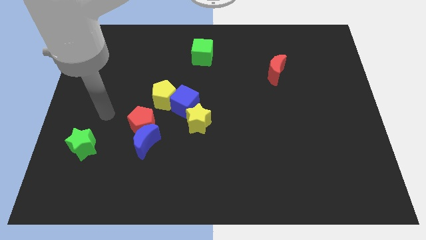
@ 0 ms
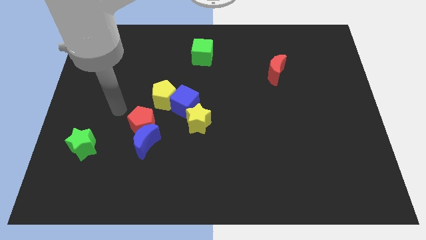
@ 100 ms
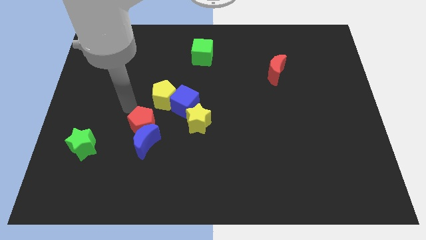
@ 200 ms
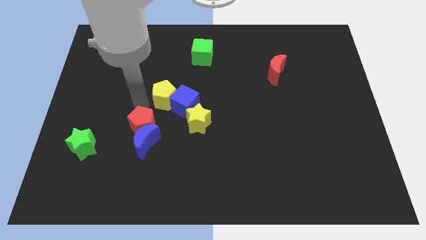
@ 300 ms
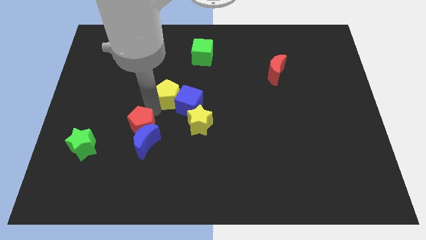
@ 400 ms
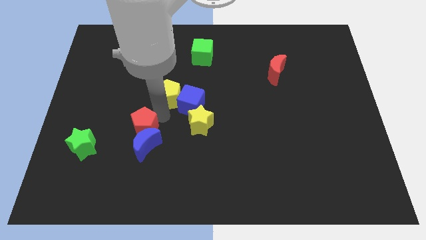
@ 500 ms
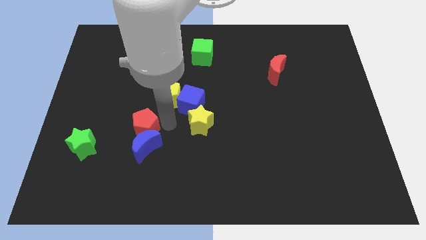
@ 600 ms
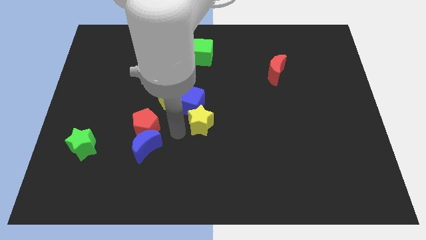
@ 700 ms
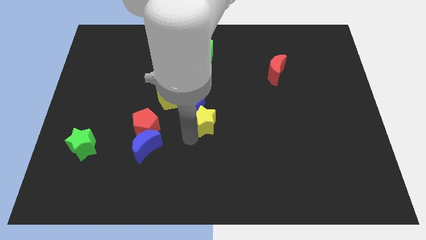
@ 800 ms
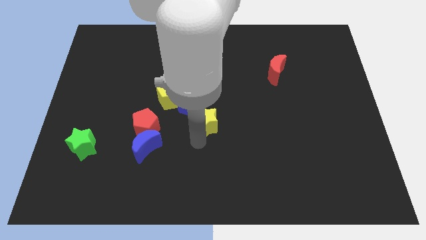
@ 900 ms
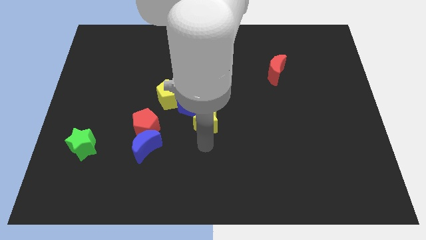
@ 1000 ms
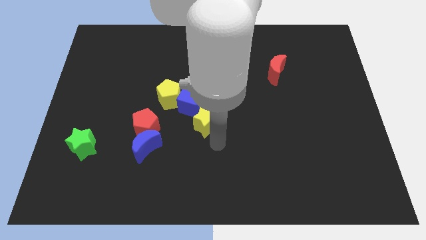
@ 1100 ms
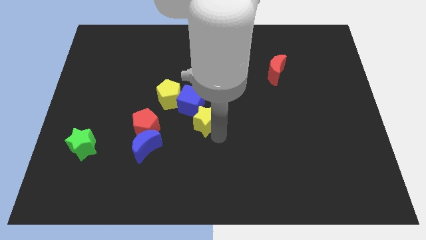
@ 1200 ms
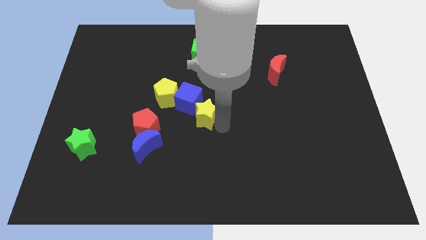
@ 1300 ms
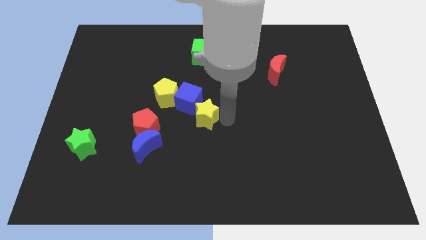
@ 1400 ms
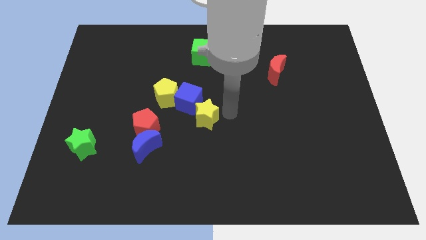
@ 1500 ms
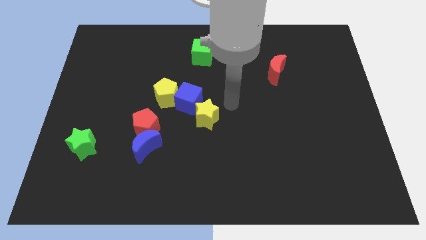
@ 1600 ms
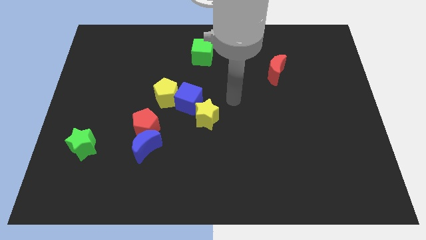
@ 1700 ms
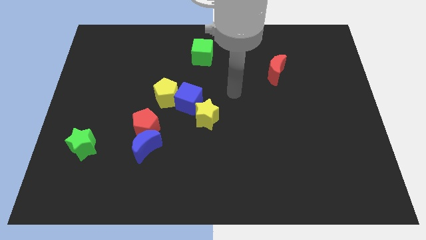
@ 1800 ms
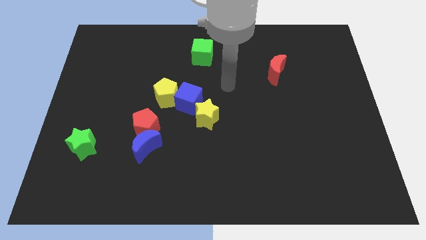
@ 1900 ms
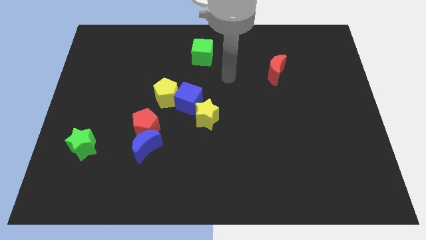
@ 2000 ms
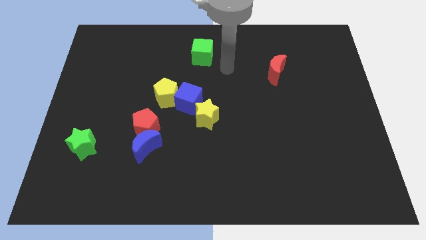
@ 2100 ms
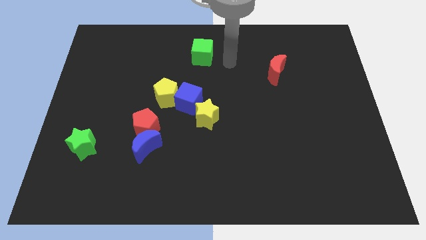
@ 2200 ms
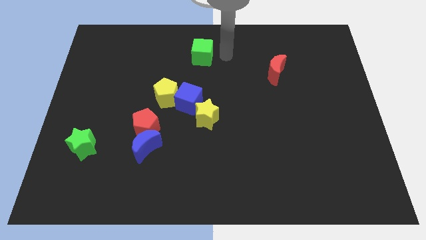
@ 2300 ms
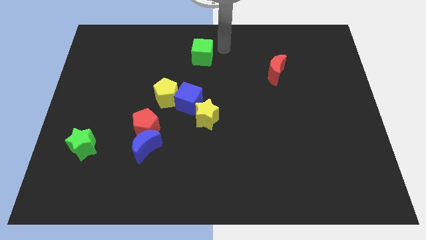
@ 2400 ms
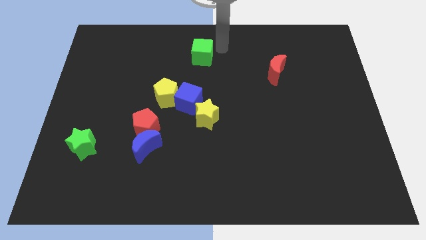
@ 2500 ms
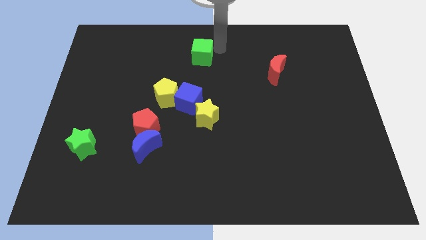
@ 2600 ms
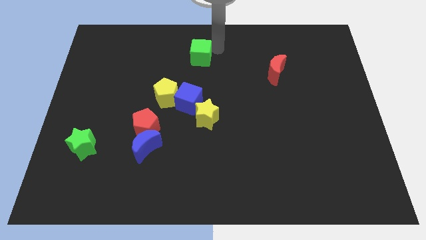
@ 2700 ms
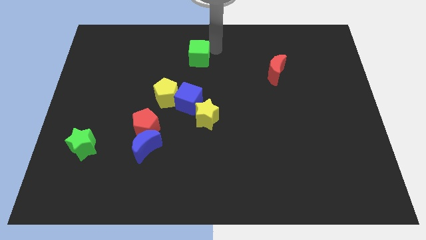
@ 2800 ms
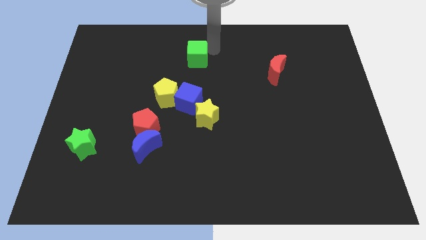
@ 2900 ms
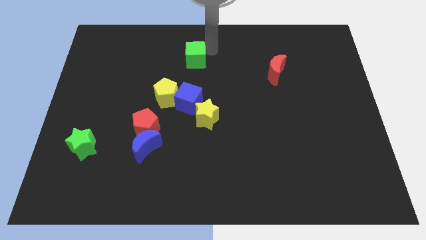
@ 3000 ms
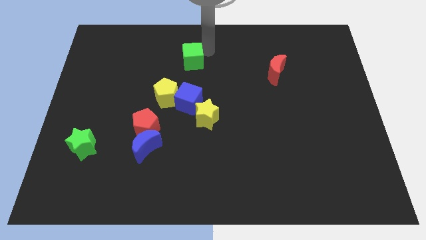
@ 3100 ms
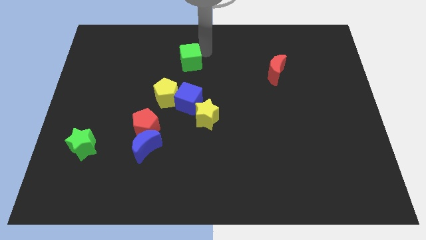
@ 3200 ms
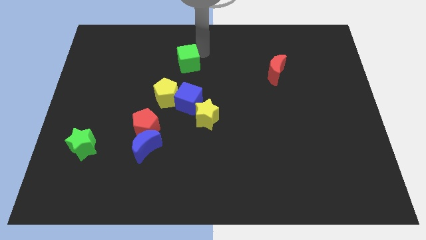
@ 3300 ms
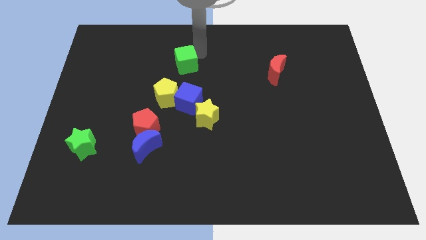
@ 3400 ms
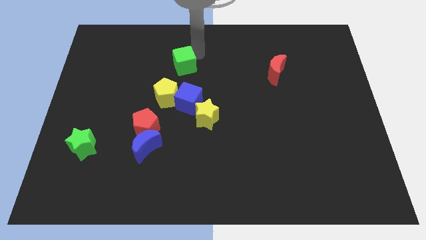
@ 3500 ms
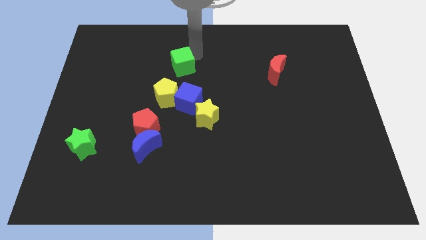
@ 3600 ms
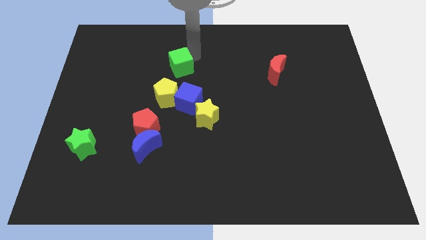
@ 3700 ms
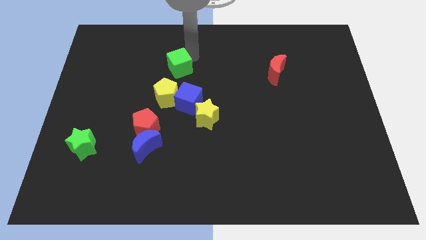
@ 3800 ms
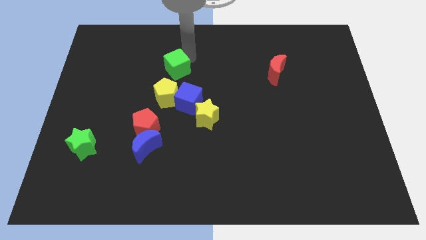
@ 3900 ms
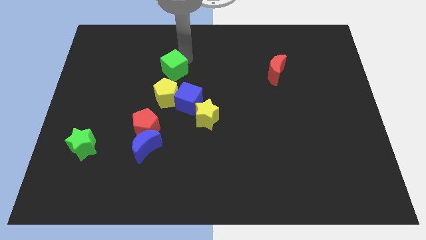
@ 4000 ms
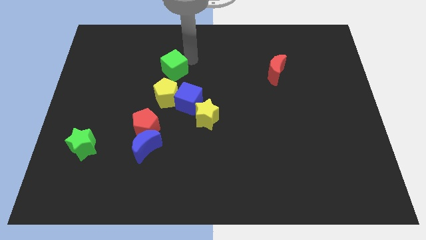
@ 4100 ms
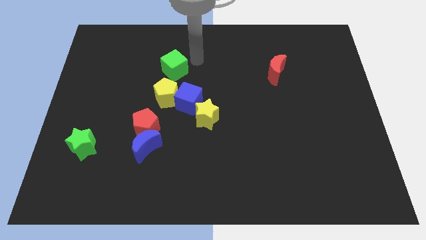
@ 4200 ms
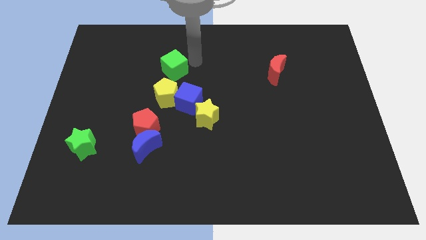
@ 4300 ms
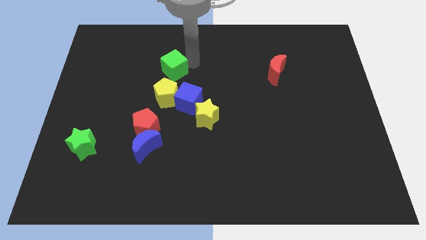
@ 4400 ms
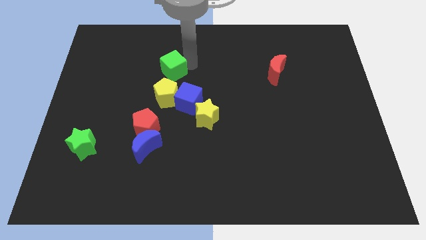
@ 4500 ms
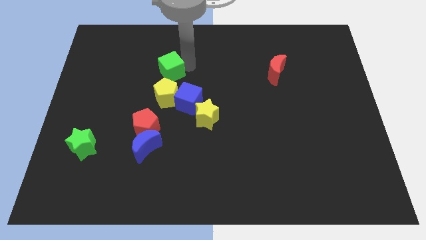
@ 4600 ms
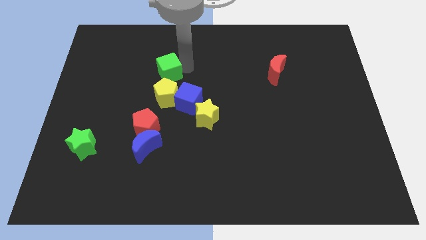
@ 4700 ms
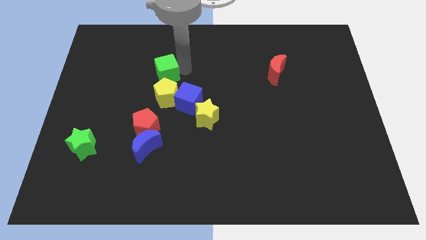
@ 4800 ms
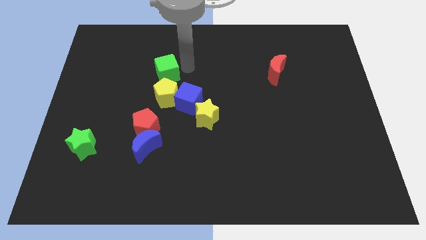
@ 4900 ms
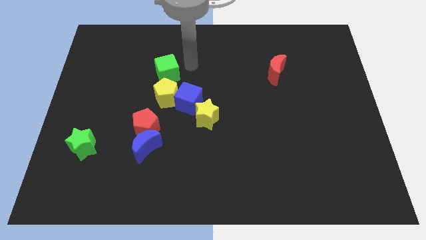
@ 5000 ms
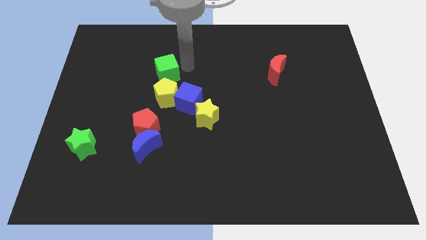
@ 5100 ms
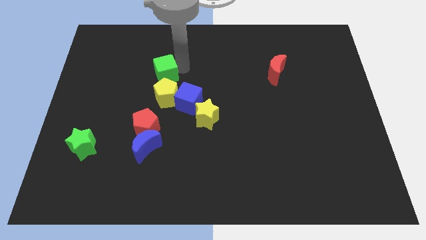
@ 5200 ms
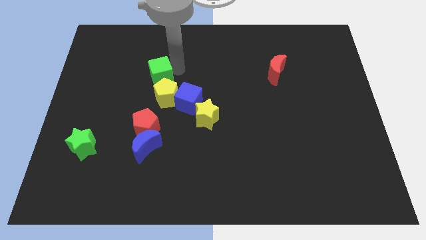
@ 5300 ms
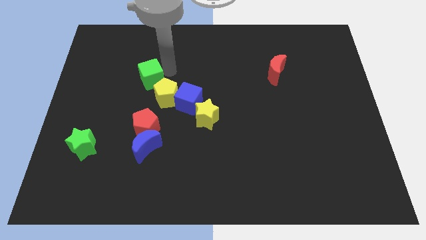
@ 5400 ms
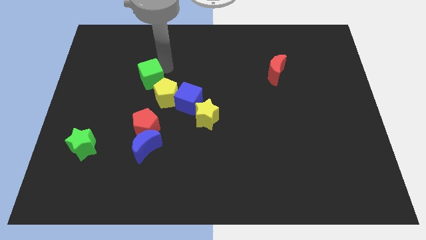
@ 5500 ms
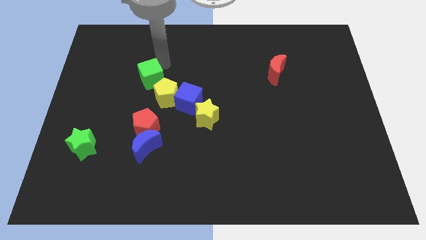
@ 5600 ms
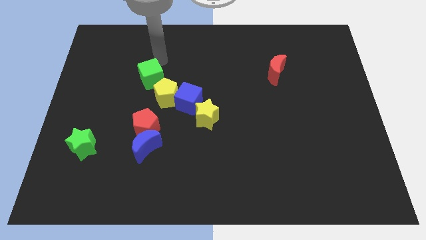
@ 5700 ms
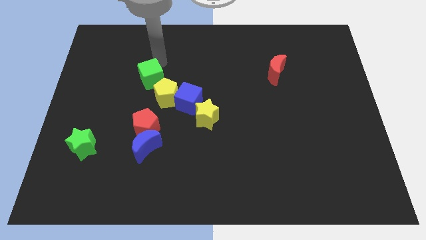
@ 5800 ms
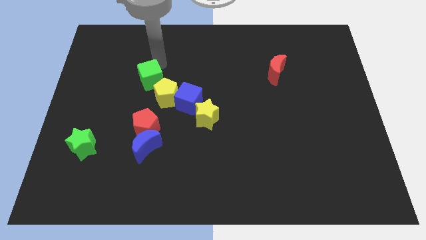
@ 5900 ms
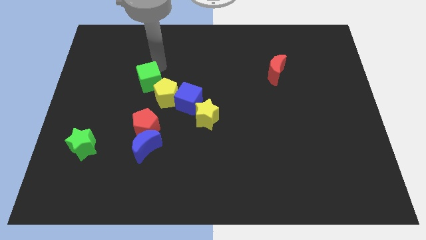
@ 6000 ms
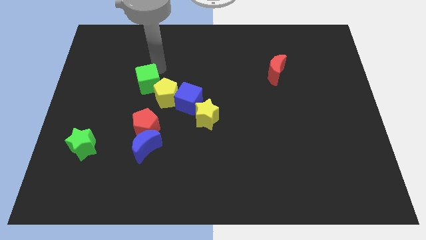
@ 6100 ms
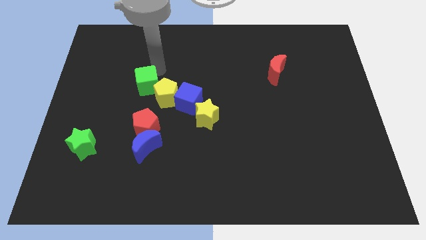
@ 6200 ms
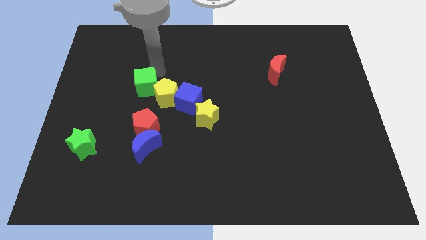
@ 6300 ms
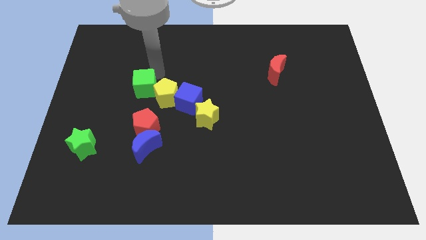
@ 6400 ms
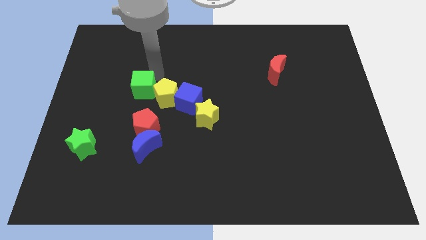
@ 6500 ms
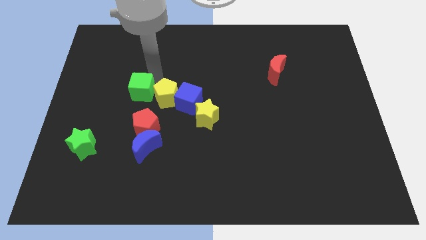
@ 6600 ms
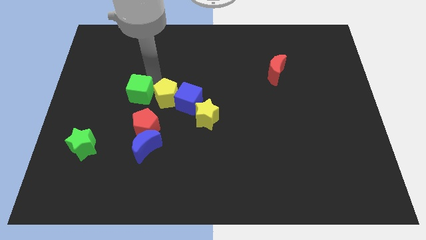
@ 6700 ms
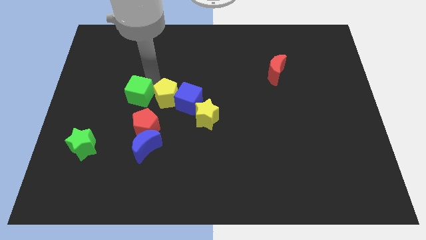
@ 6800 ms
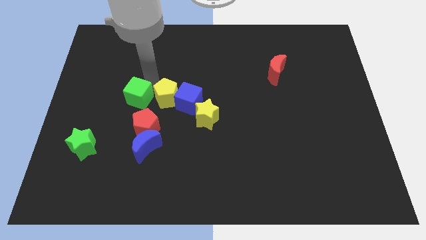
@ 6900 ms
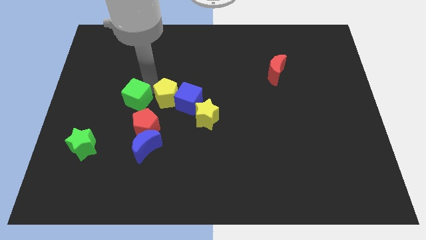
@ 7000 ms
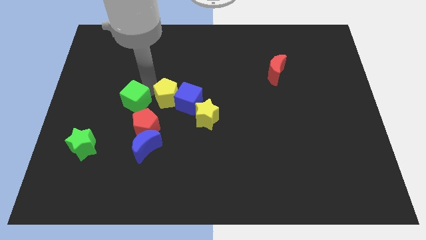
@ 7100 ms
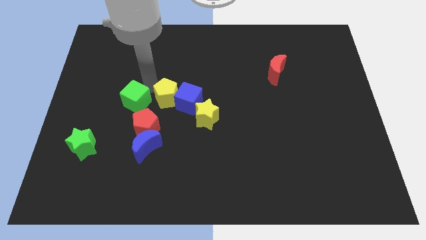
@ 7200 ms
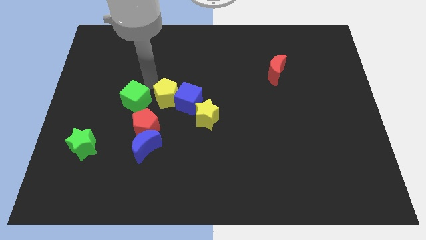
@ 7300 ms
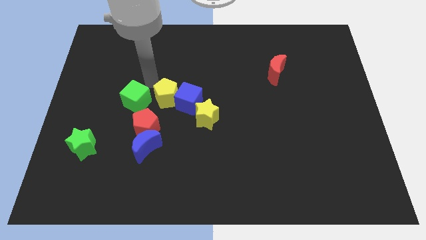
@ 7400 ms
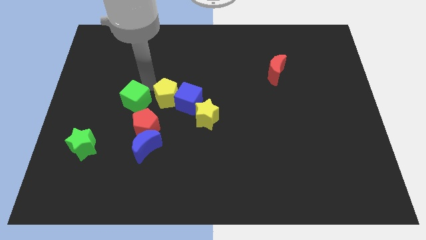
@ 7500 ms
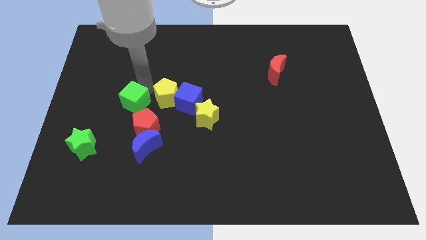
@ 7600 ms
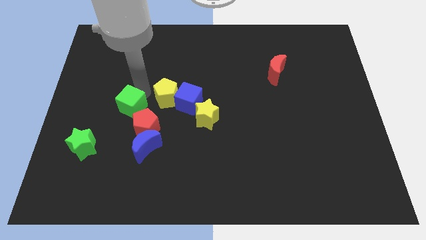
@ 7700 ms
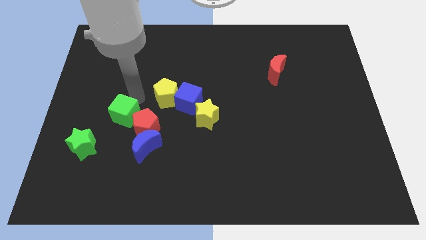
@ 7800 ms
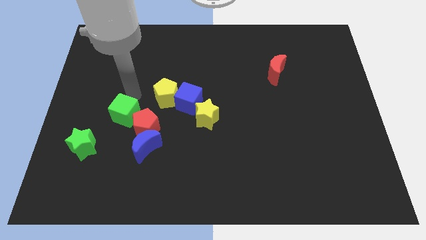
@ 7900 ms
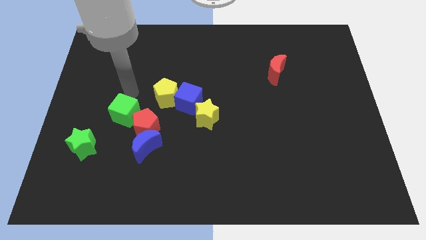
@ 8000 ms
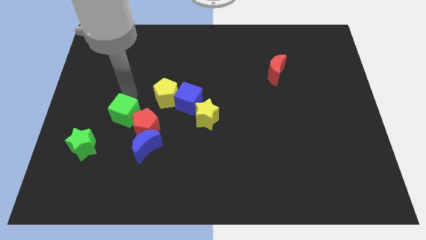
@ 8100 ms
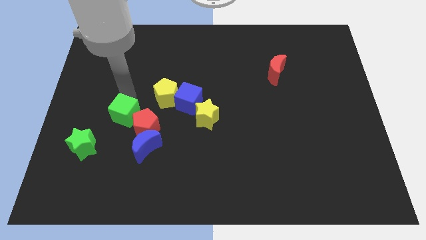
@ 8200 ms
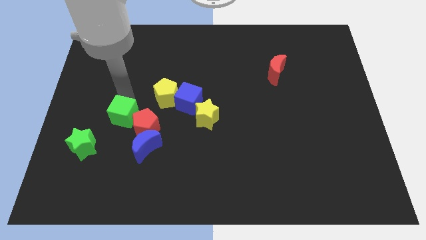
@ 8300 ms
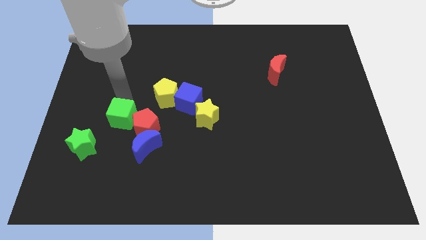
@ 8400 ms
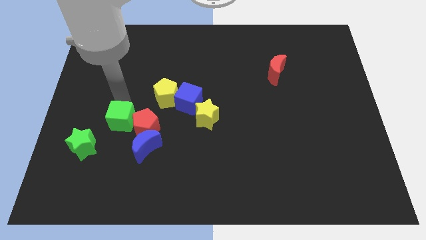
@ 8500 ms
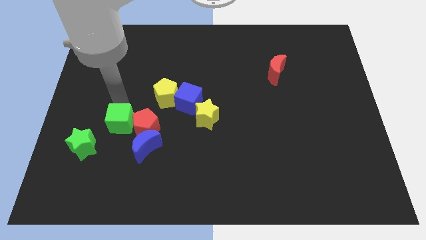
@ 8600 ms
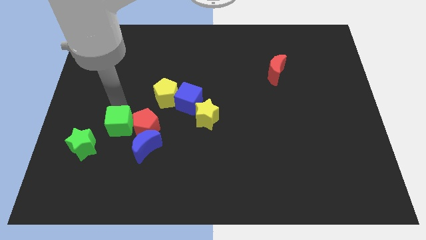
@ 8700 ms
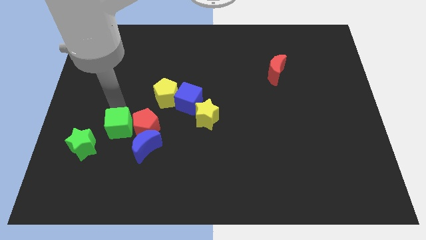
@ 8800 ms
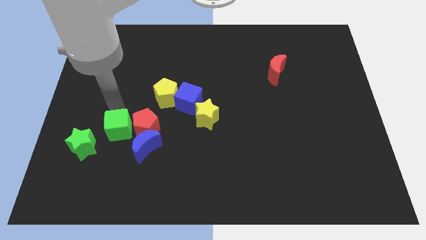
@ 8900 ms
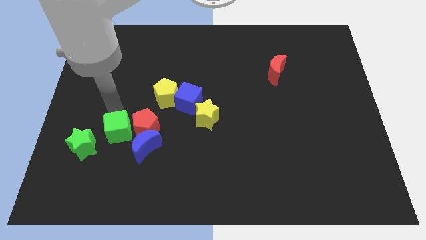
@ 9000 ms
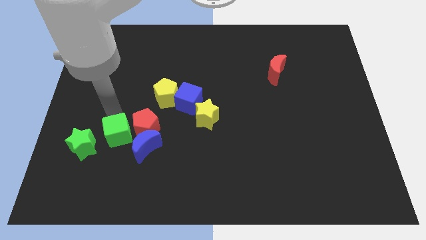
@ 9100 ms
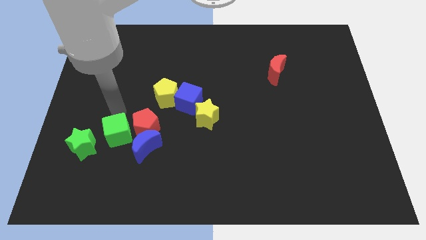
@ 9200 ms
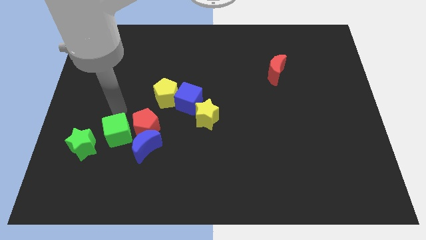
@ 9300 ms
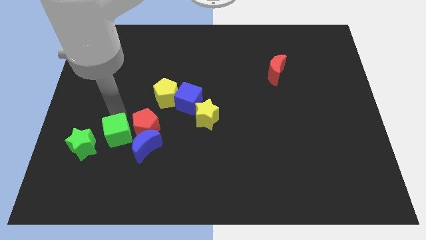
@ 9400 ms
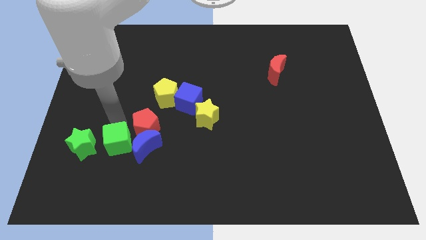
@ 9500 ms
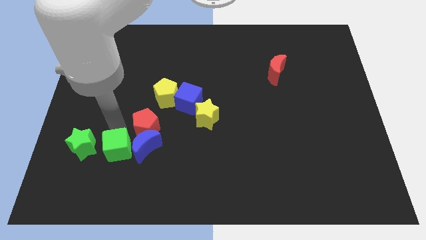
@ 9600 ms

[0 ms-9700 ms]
push the green cube to the bottom left side of the blue moon
